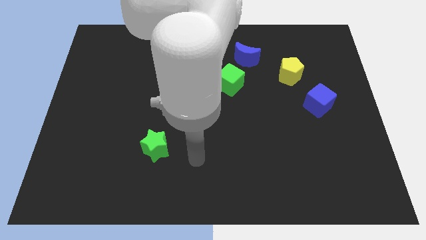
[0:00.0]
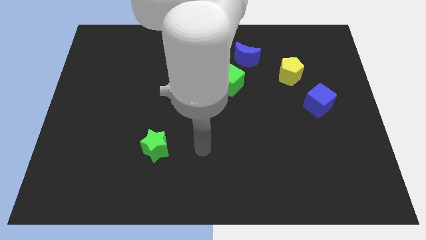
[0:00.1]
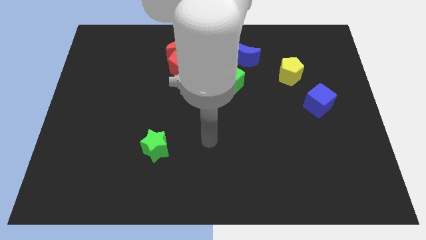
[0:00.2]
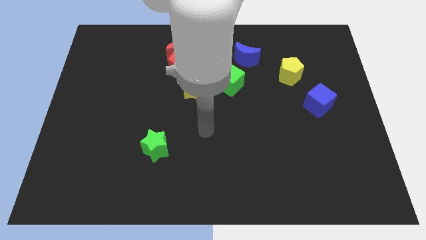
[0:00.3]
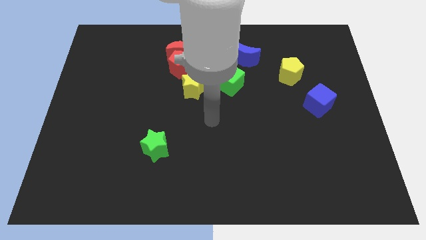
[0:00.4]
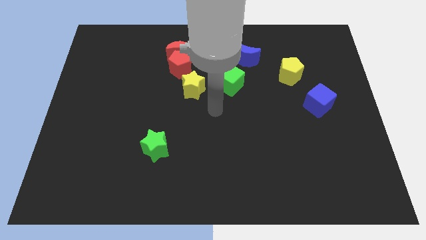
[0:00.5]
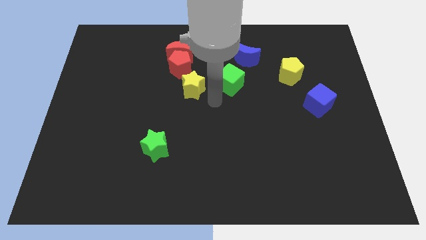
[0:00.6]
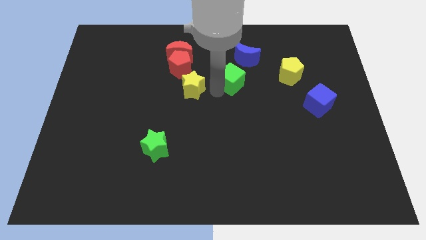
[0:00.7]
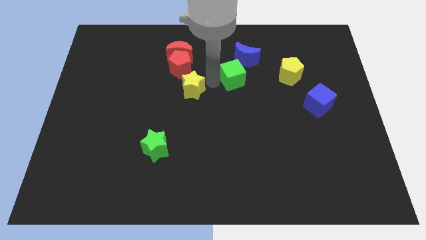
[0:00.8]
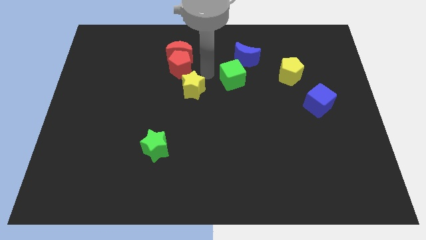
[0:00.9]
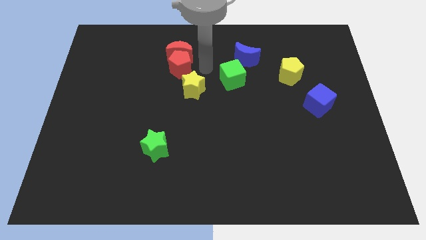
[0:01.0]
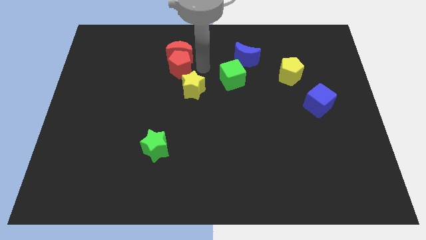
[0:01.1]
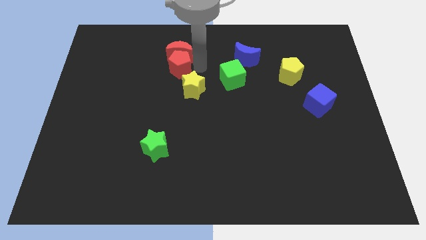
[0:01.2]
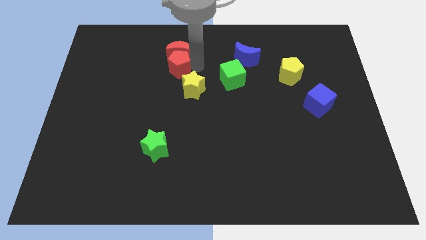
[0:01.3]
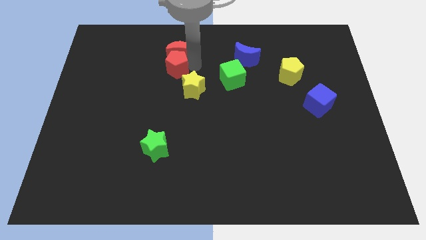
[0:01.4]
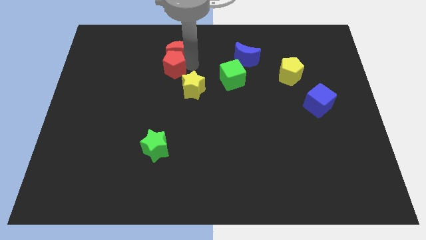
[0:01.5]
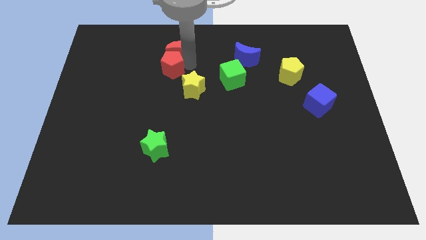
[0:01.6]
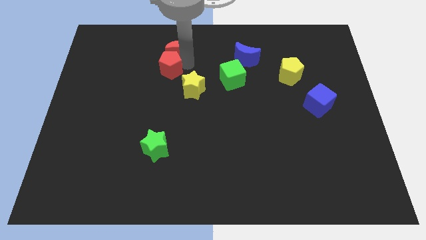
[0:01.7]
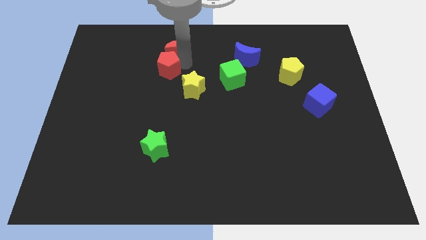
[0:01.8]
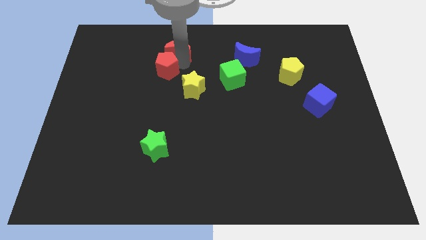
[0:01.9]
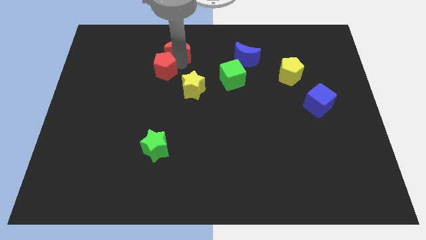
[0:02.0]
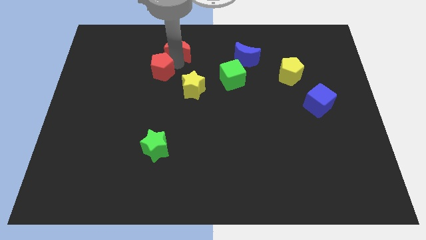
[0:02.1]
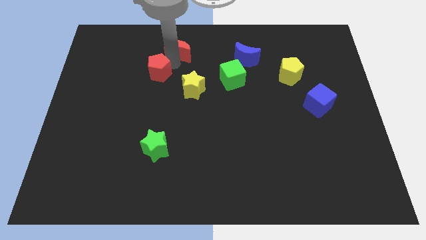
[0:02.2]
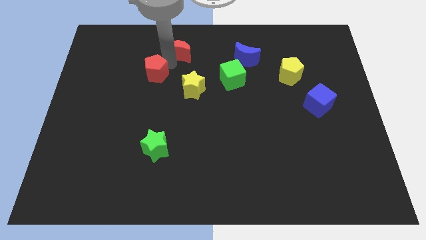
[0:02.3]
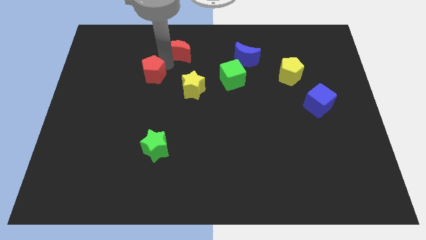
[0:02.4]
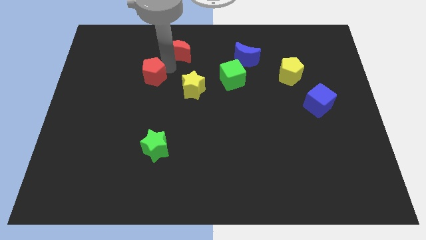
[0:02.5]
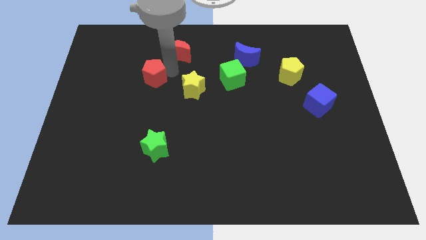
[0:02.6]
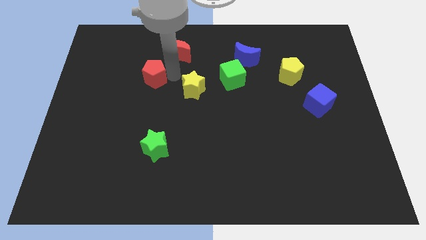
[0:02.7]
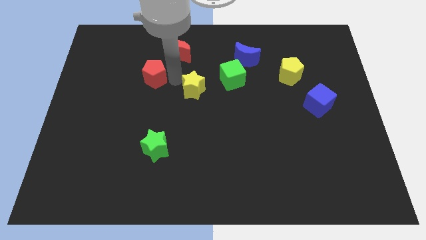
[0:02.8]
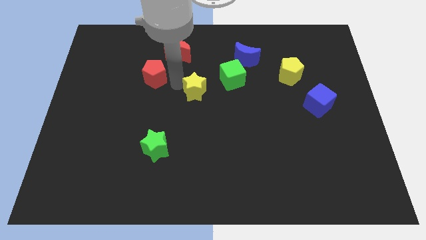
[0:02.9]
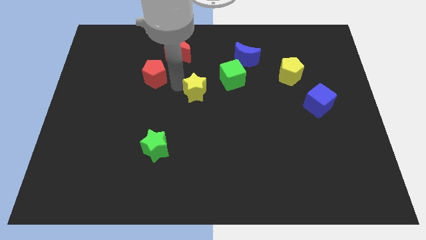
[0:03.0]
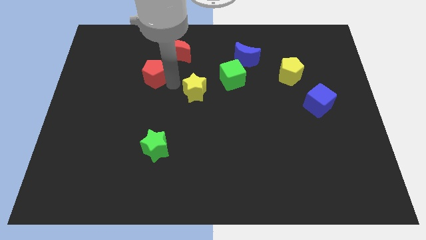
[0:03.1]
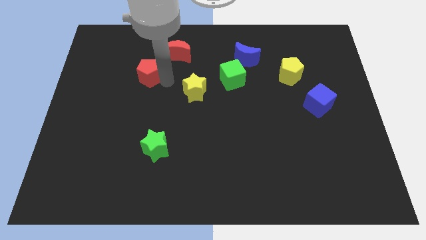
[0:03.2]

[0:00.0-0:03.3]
move the red pentagon left a bit

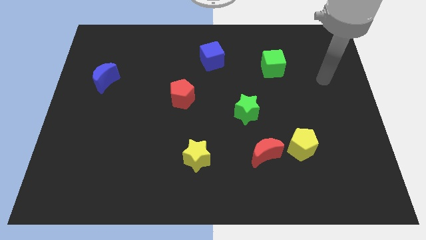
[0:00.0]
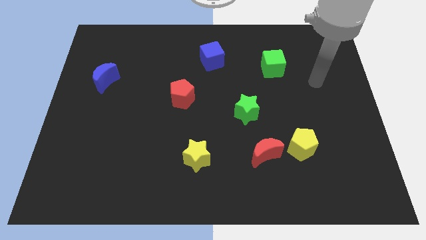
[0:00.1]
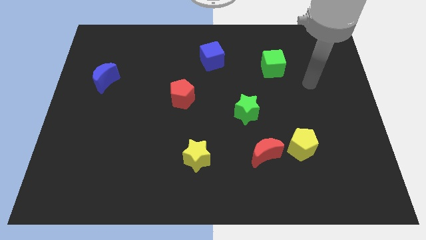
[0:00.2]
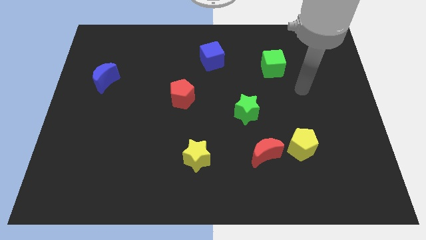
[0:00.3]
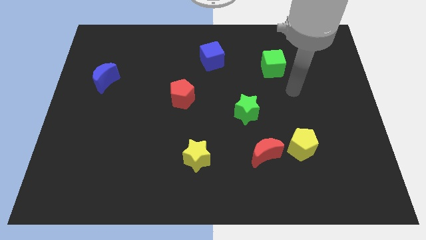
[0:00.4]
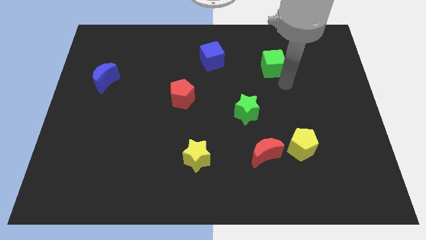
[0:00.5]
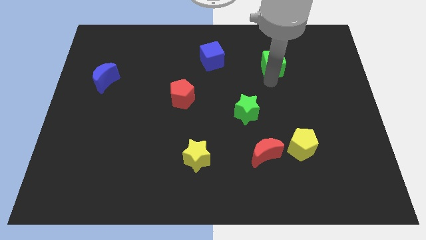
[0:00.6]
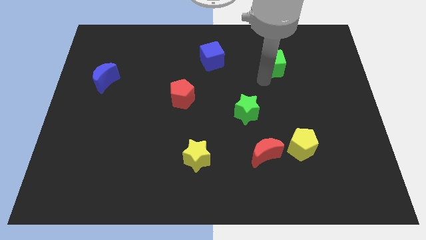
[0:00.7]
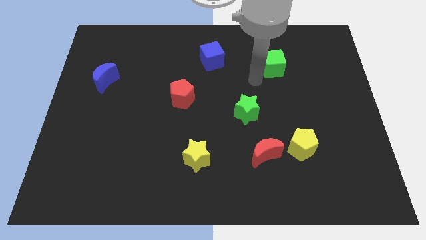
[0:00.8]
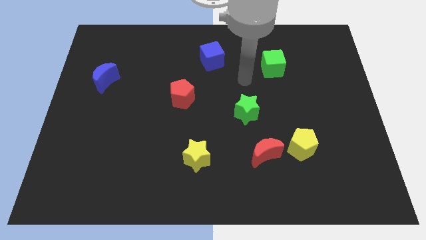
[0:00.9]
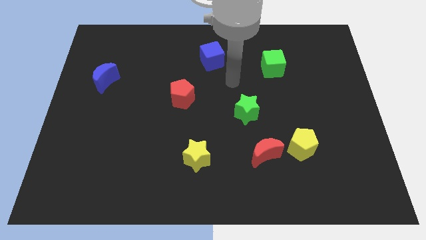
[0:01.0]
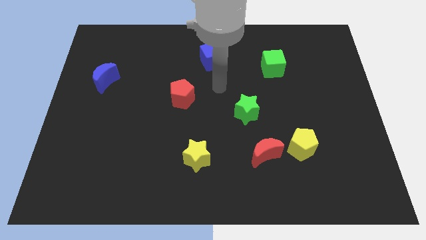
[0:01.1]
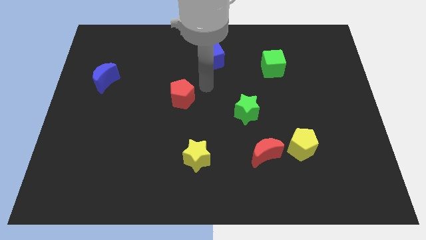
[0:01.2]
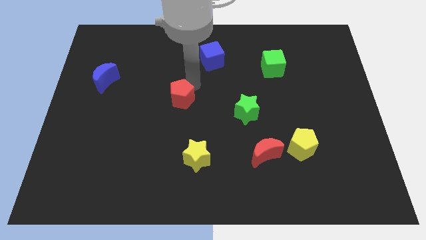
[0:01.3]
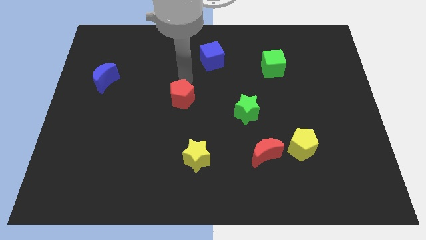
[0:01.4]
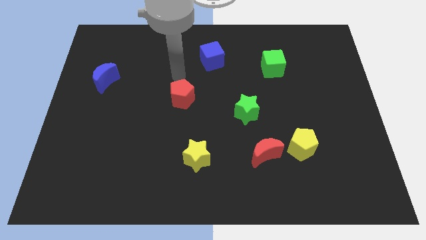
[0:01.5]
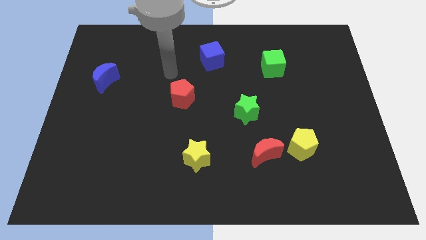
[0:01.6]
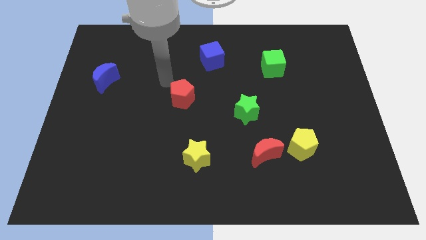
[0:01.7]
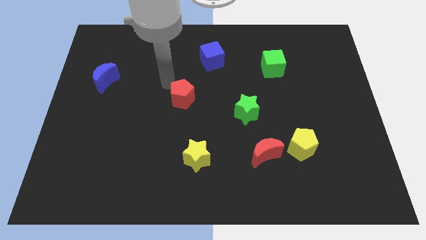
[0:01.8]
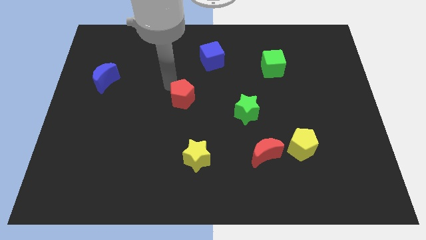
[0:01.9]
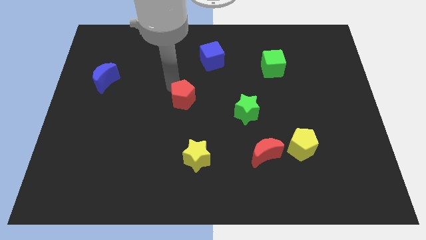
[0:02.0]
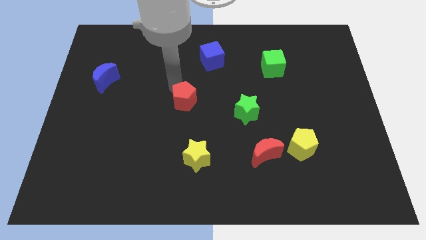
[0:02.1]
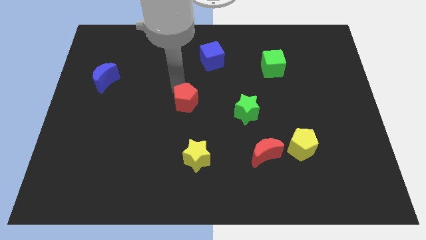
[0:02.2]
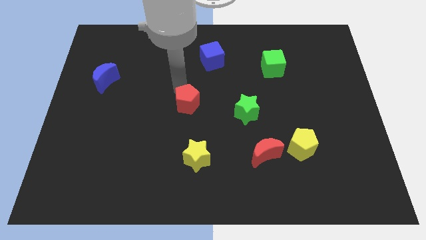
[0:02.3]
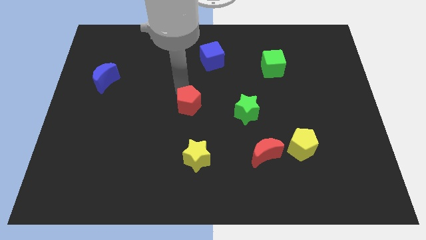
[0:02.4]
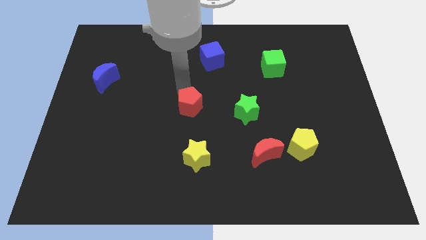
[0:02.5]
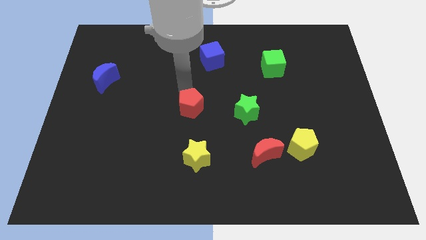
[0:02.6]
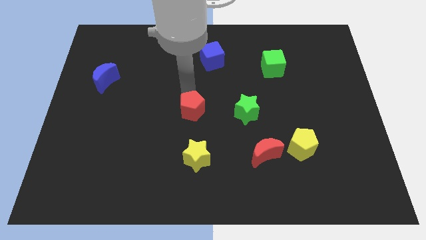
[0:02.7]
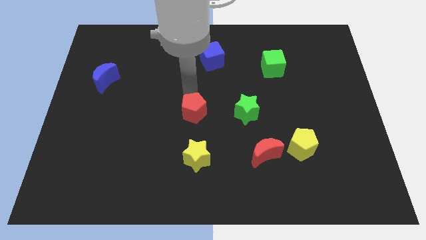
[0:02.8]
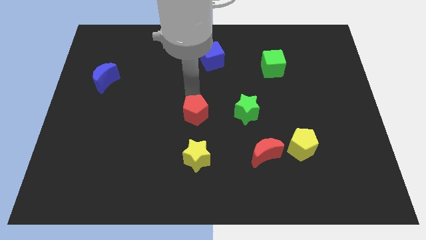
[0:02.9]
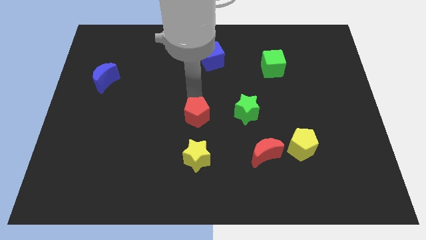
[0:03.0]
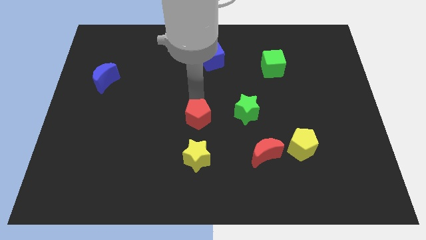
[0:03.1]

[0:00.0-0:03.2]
move the red pentagon down and then right a bit

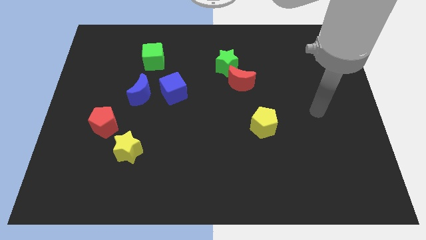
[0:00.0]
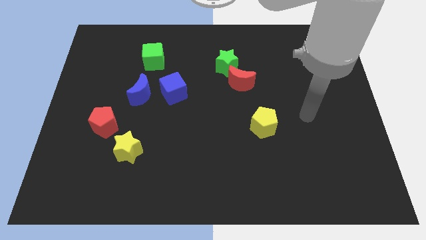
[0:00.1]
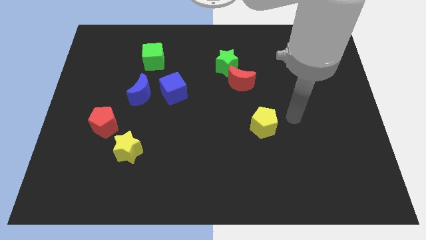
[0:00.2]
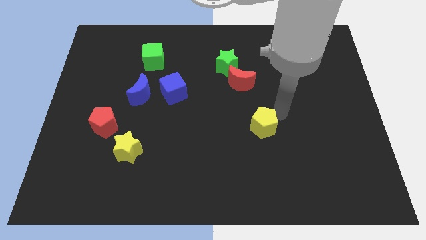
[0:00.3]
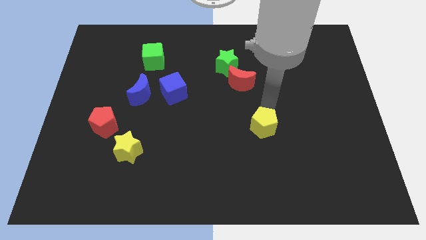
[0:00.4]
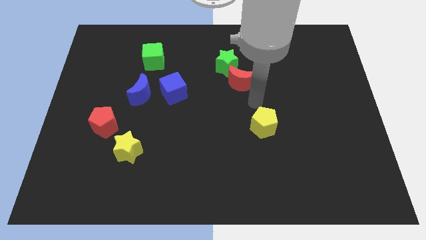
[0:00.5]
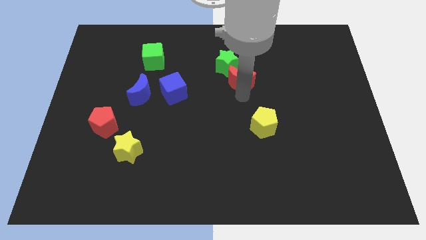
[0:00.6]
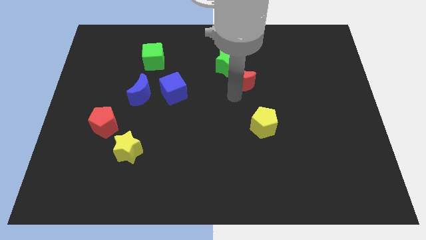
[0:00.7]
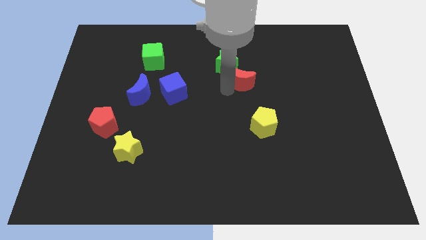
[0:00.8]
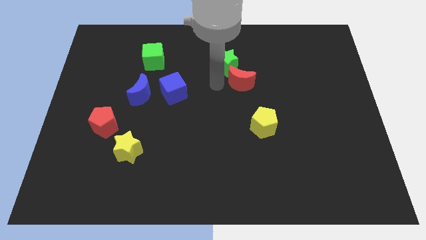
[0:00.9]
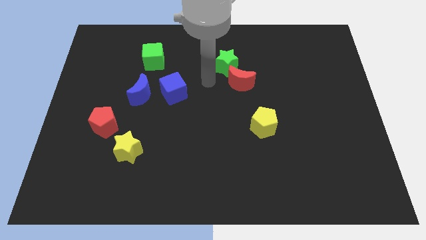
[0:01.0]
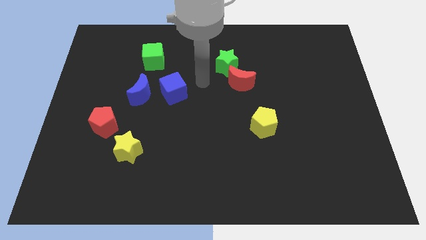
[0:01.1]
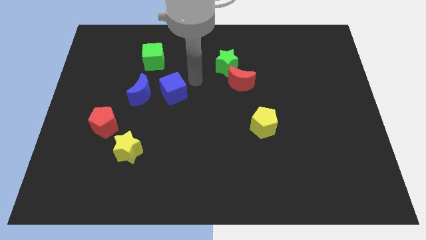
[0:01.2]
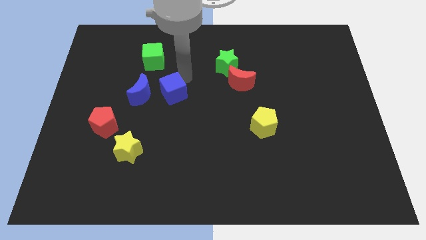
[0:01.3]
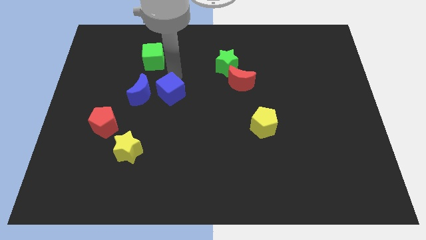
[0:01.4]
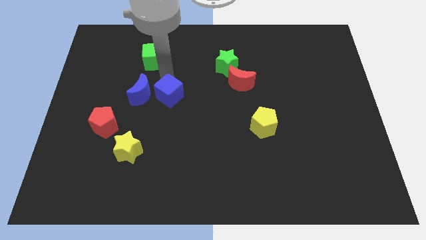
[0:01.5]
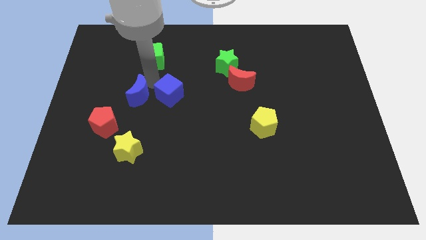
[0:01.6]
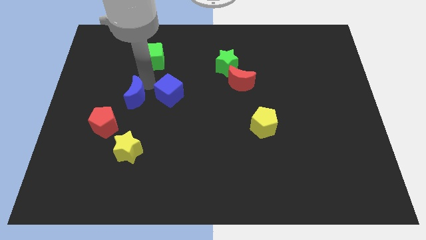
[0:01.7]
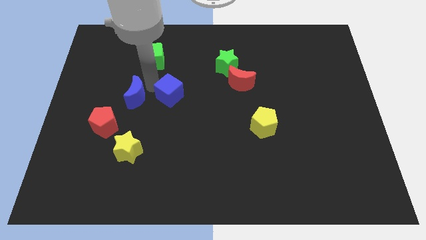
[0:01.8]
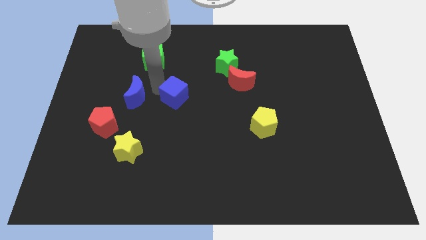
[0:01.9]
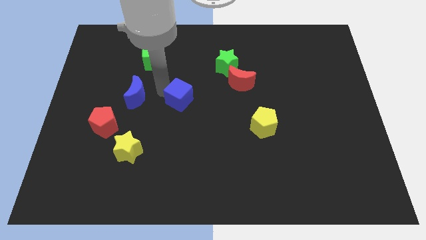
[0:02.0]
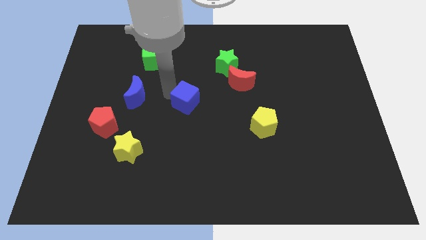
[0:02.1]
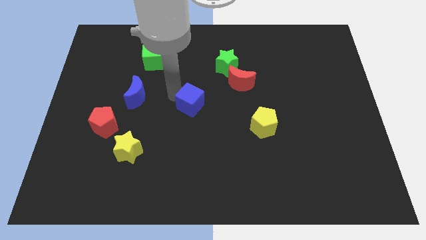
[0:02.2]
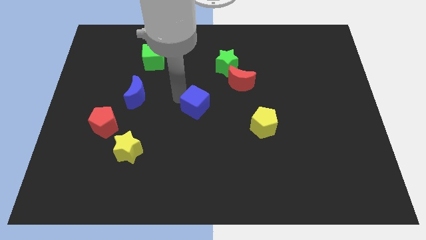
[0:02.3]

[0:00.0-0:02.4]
slide the blue cube diagonally downwards and to the right slightly
